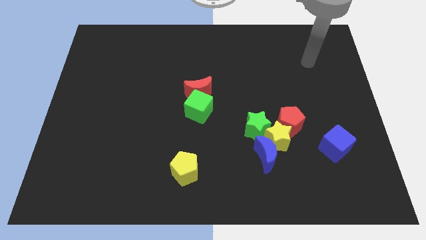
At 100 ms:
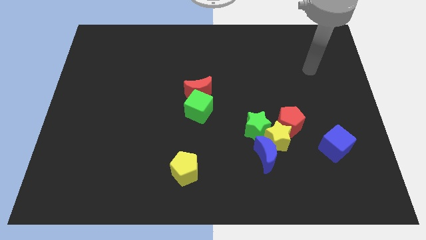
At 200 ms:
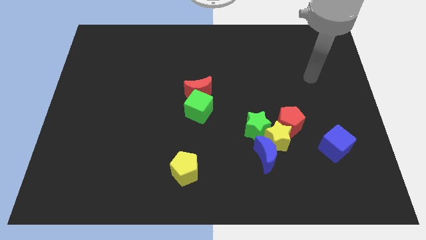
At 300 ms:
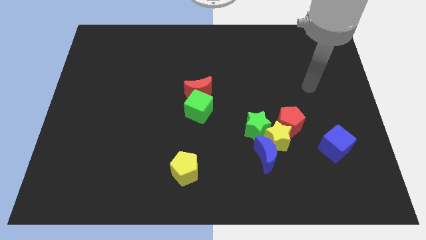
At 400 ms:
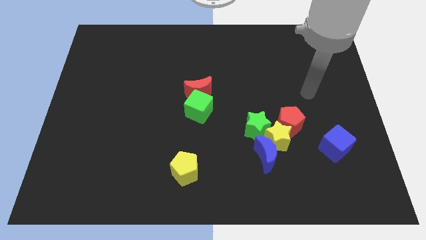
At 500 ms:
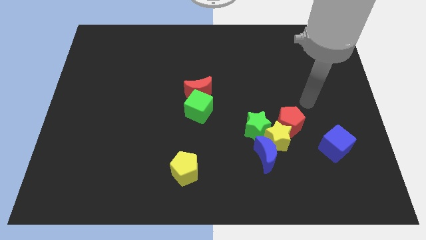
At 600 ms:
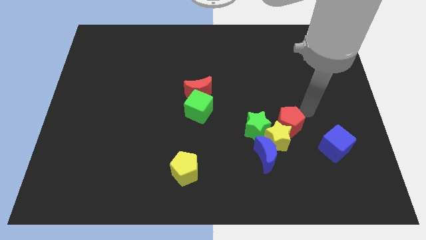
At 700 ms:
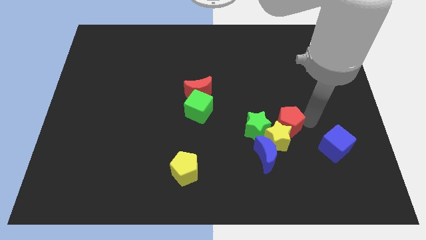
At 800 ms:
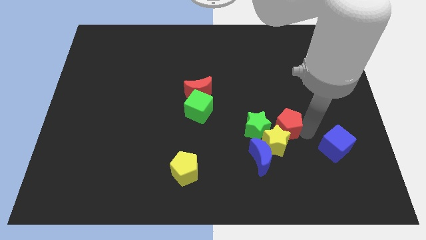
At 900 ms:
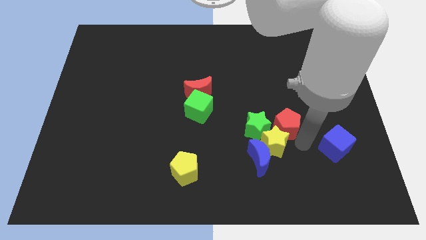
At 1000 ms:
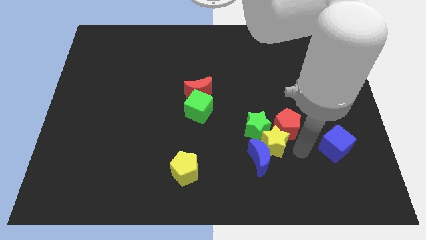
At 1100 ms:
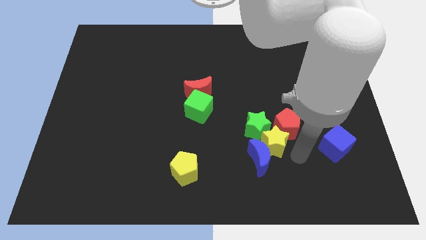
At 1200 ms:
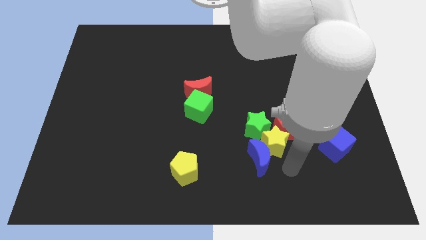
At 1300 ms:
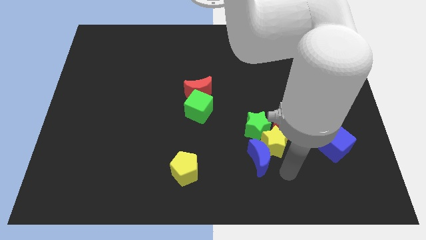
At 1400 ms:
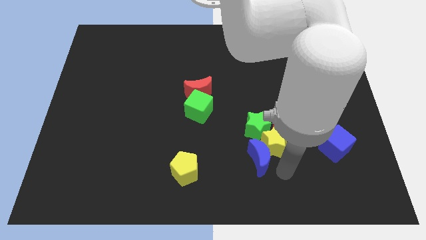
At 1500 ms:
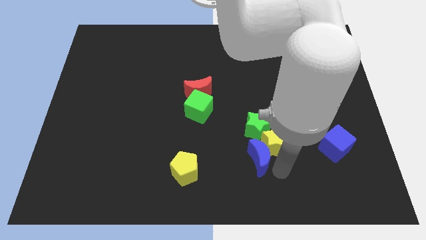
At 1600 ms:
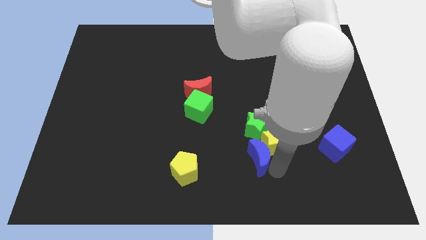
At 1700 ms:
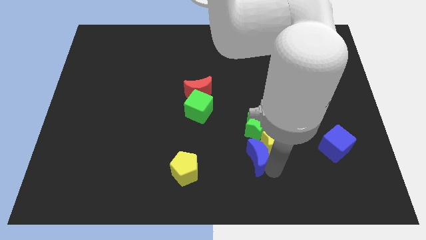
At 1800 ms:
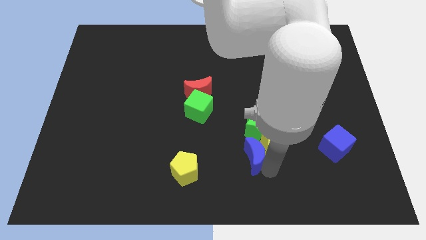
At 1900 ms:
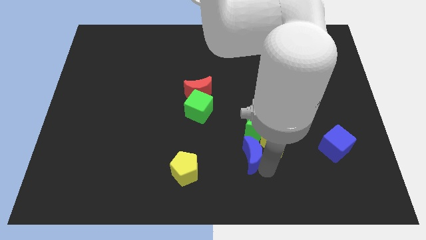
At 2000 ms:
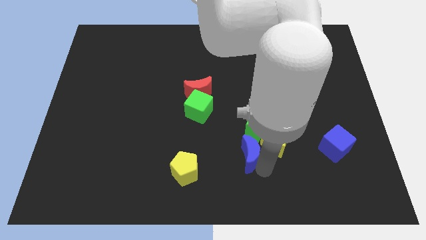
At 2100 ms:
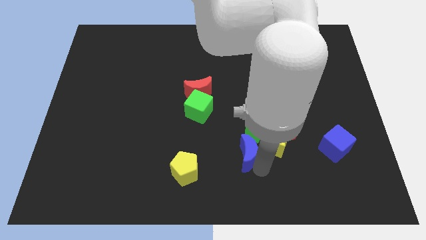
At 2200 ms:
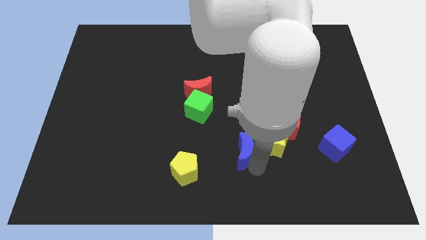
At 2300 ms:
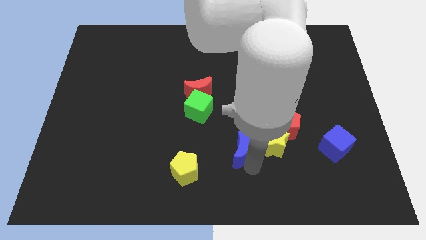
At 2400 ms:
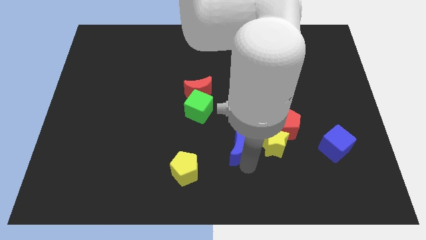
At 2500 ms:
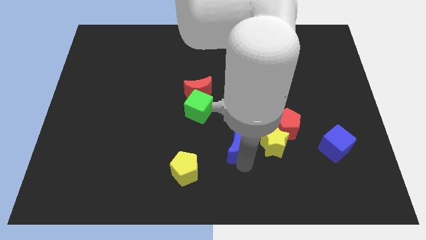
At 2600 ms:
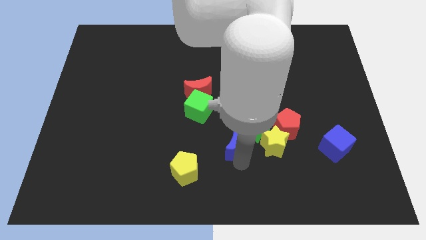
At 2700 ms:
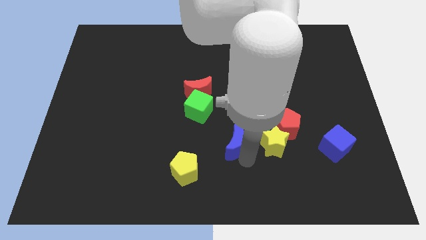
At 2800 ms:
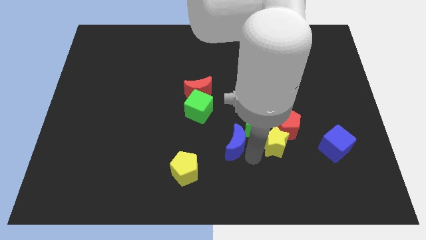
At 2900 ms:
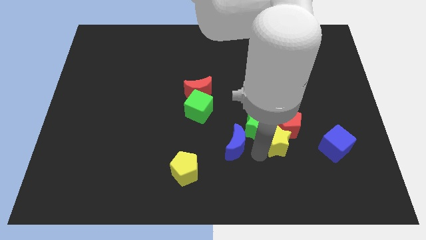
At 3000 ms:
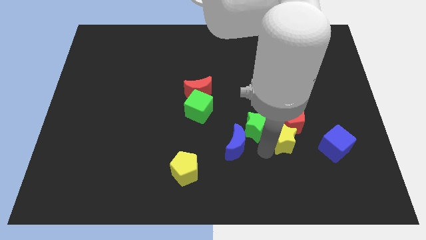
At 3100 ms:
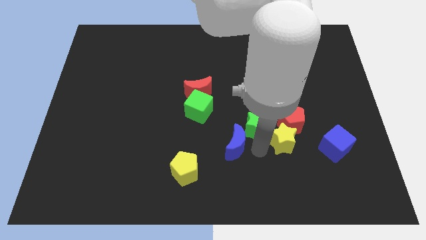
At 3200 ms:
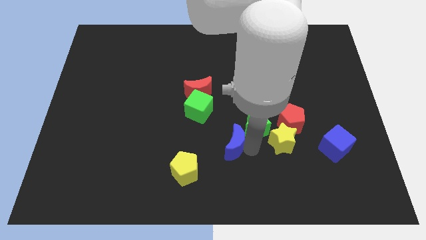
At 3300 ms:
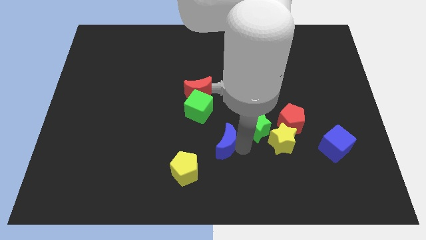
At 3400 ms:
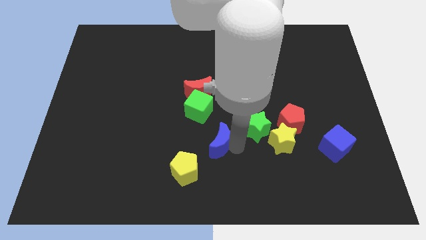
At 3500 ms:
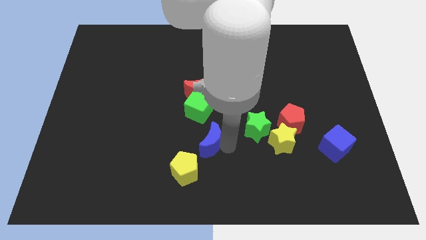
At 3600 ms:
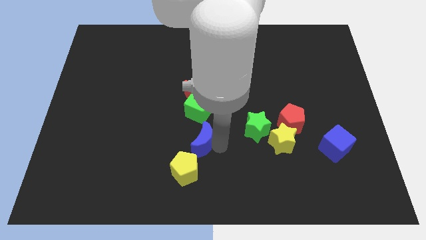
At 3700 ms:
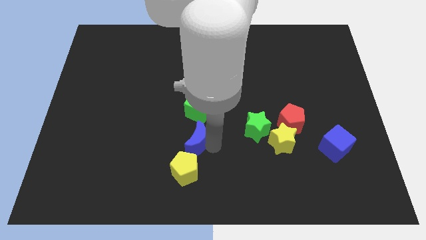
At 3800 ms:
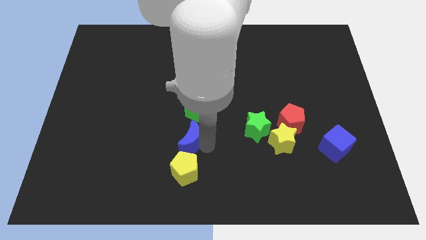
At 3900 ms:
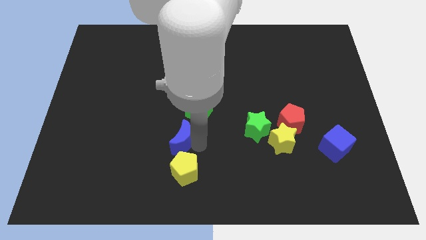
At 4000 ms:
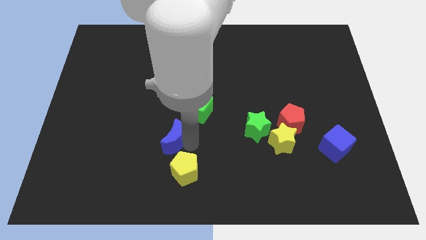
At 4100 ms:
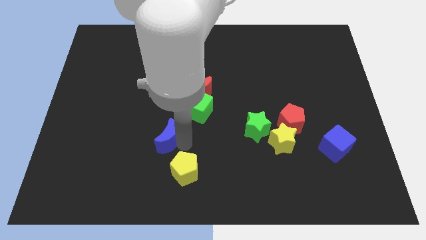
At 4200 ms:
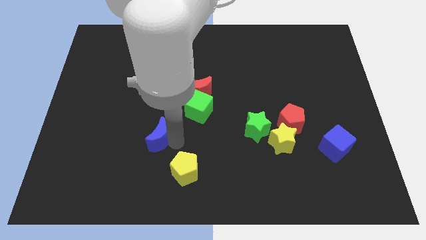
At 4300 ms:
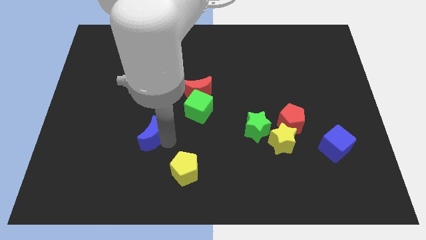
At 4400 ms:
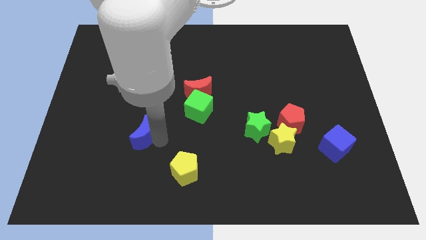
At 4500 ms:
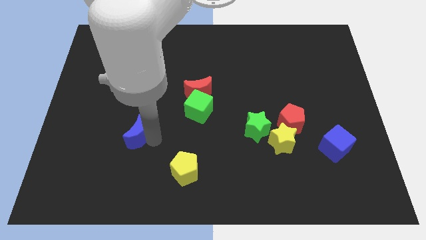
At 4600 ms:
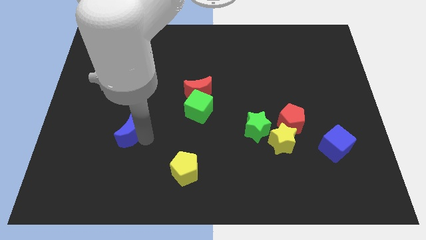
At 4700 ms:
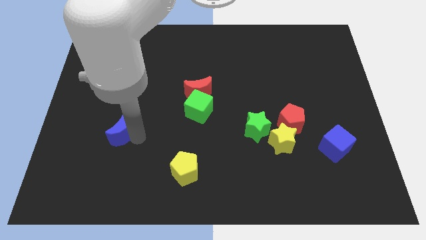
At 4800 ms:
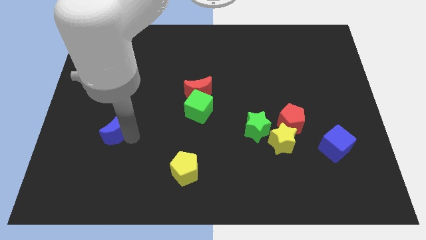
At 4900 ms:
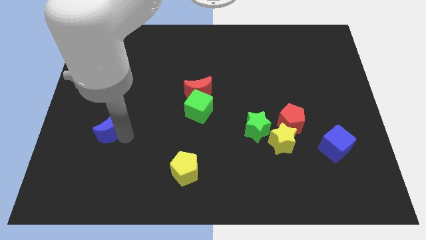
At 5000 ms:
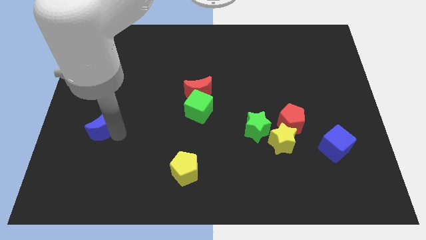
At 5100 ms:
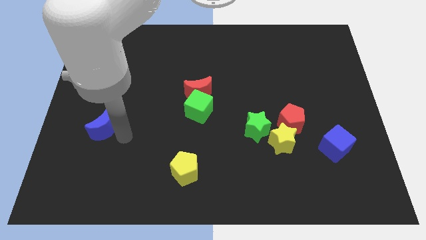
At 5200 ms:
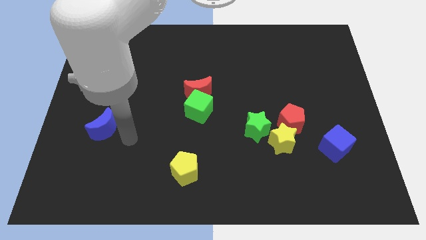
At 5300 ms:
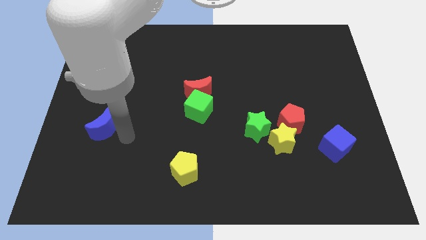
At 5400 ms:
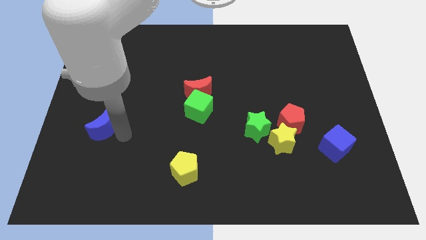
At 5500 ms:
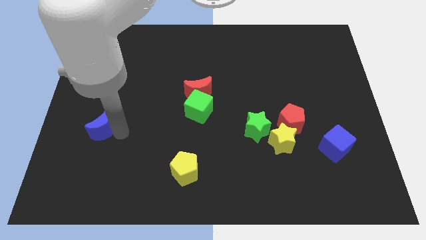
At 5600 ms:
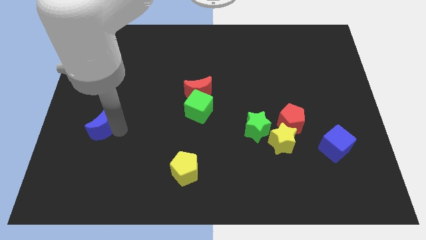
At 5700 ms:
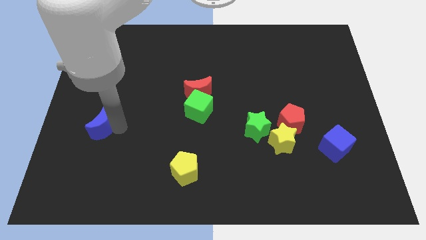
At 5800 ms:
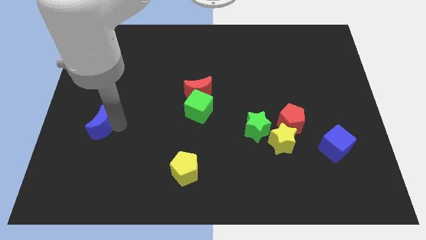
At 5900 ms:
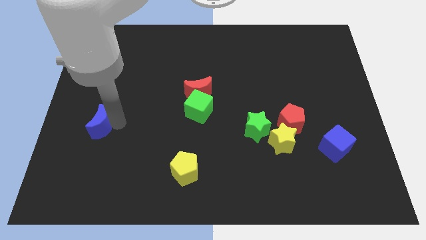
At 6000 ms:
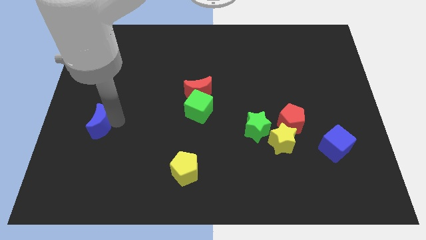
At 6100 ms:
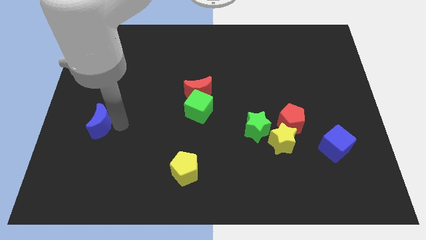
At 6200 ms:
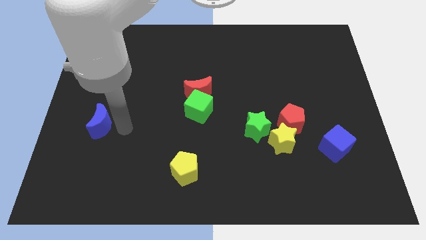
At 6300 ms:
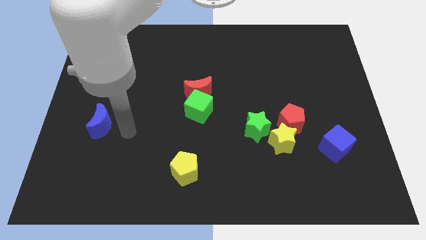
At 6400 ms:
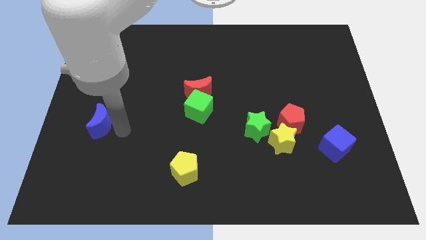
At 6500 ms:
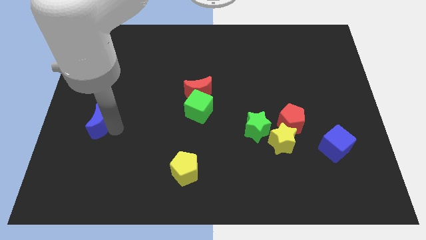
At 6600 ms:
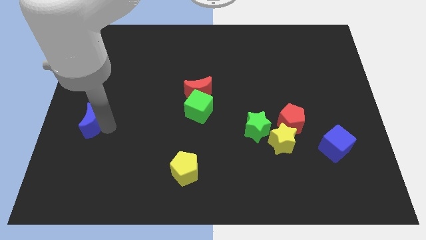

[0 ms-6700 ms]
slide the blue moon to the center left

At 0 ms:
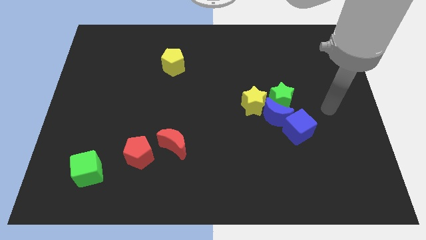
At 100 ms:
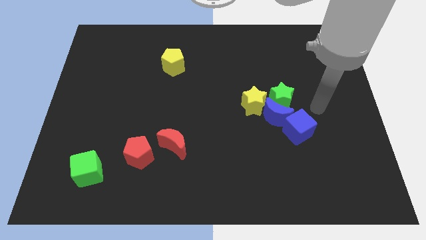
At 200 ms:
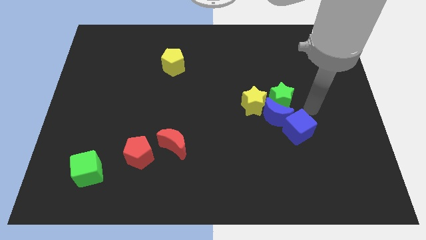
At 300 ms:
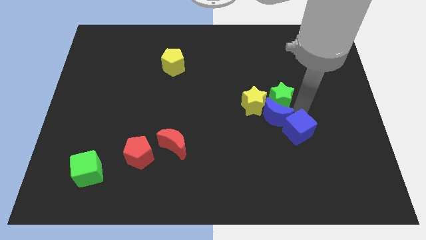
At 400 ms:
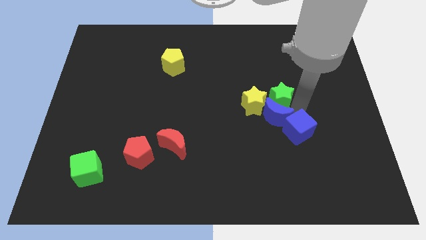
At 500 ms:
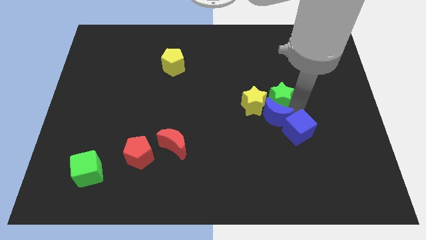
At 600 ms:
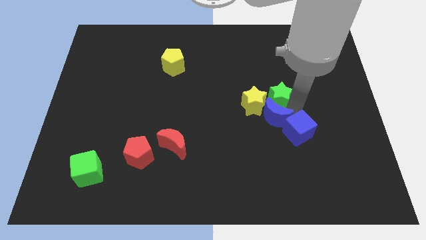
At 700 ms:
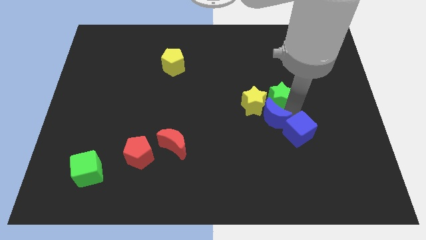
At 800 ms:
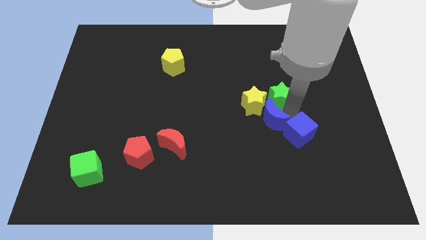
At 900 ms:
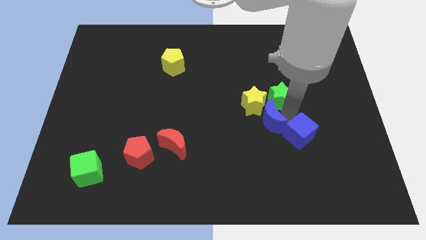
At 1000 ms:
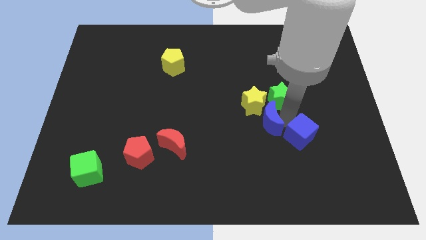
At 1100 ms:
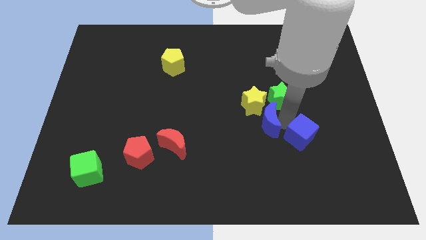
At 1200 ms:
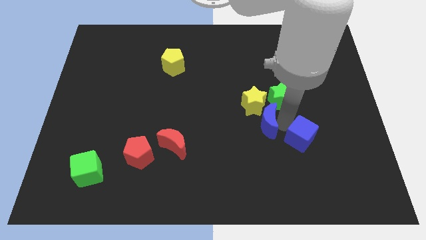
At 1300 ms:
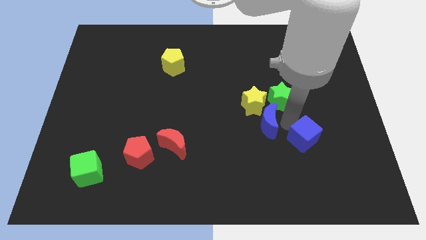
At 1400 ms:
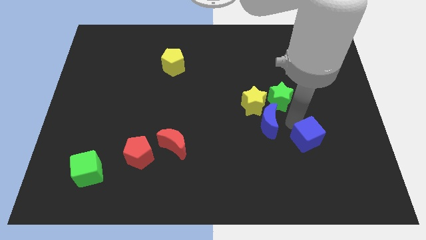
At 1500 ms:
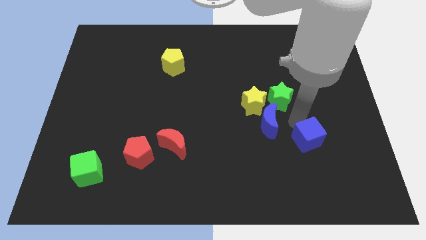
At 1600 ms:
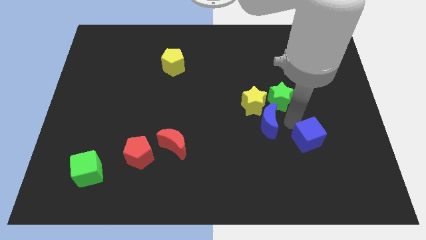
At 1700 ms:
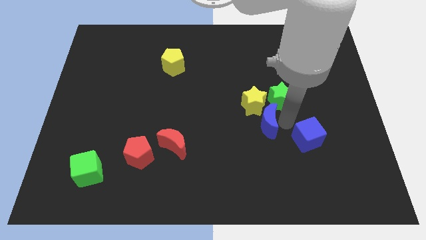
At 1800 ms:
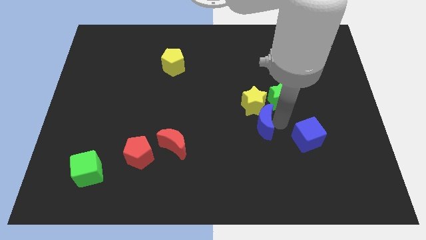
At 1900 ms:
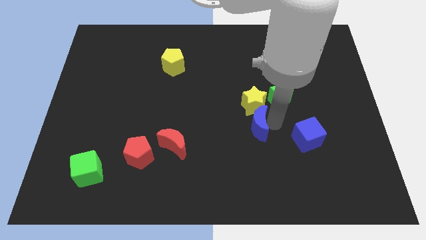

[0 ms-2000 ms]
push the blue moon to the center
